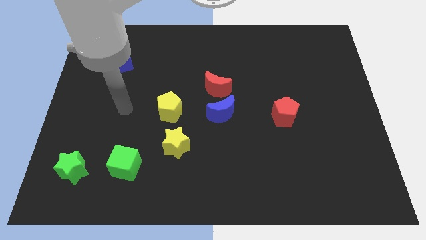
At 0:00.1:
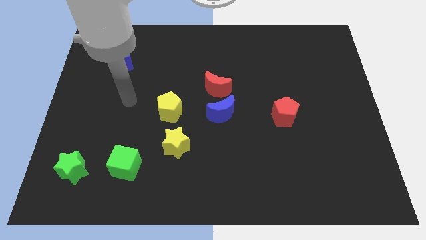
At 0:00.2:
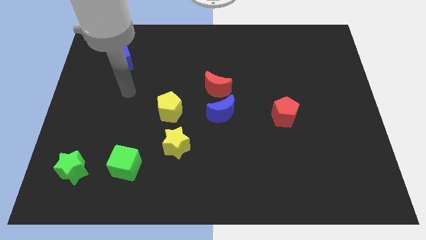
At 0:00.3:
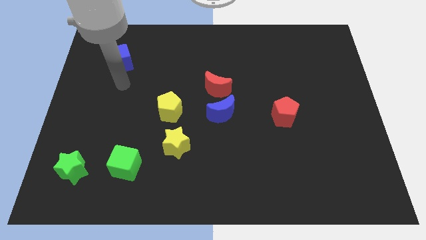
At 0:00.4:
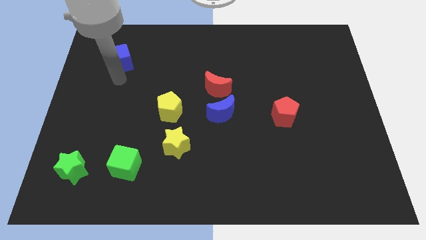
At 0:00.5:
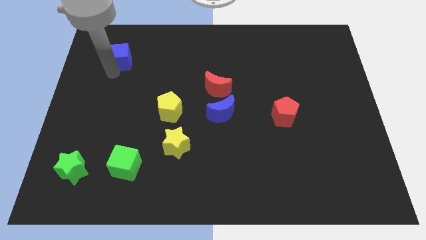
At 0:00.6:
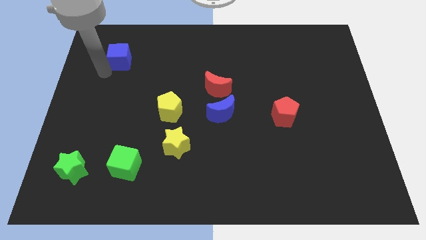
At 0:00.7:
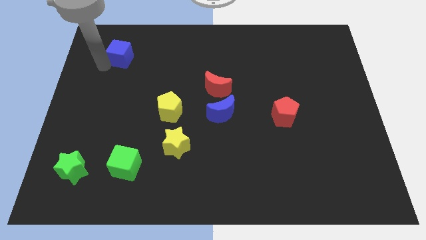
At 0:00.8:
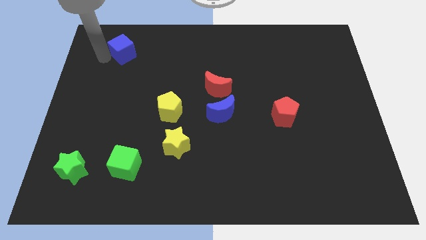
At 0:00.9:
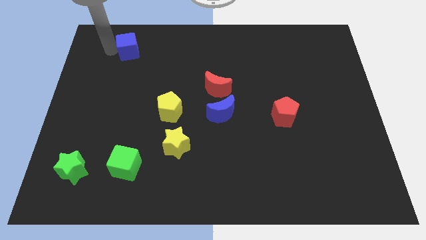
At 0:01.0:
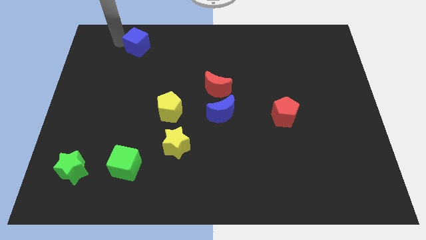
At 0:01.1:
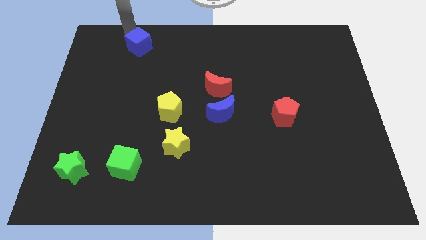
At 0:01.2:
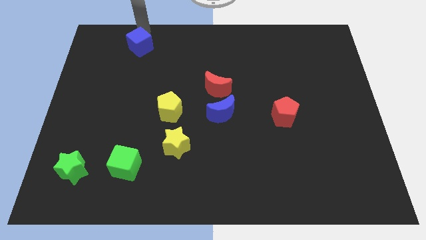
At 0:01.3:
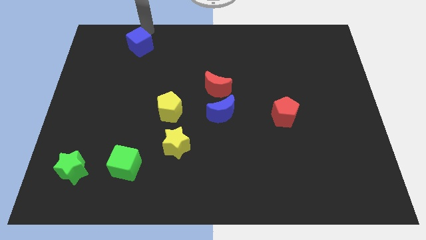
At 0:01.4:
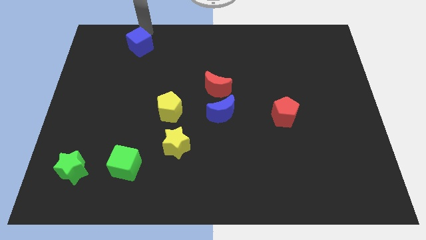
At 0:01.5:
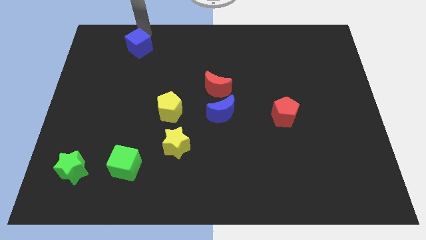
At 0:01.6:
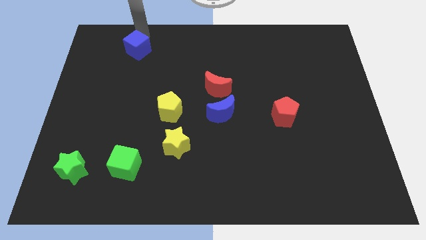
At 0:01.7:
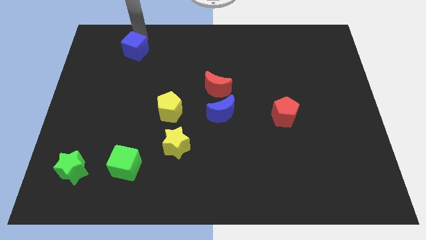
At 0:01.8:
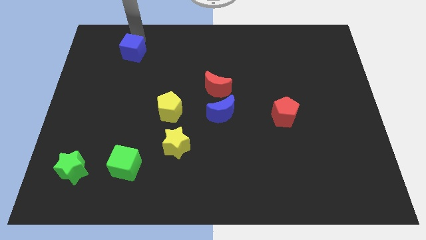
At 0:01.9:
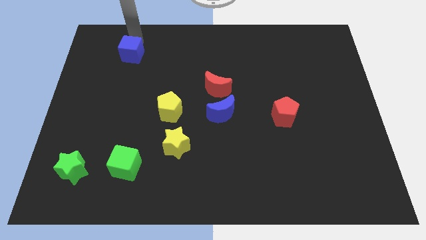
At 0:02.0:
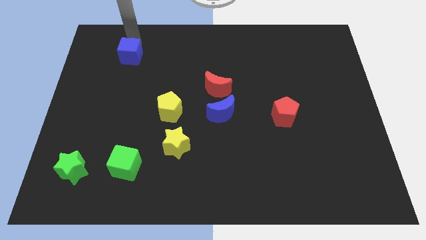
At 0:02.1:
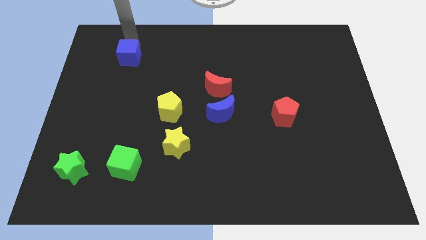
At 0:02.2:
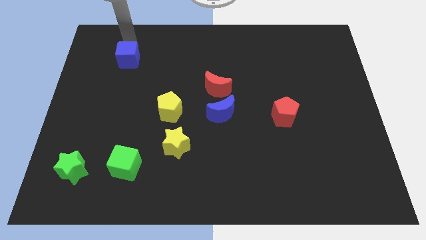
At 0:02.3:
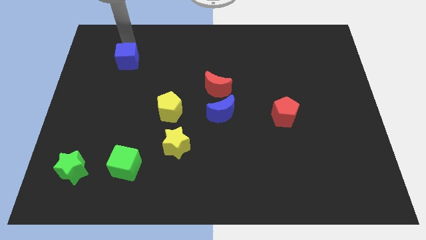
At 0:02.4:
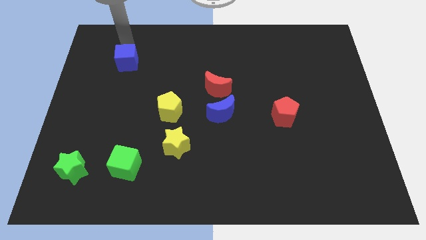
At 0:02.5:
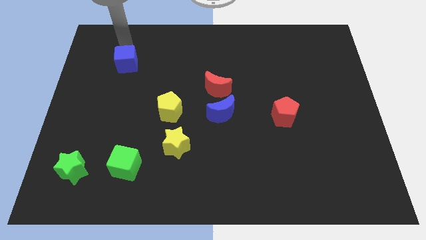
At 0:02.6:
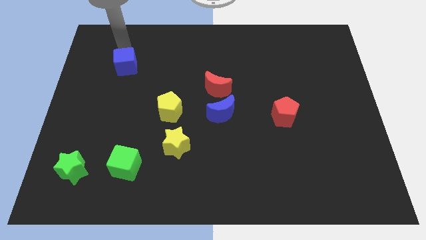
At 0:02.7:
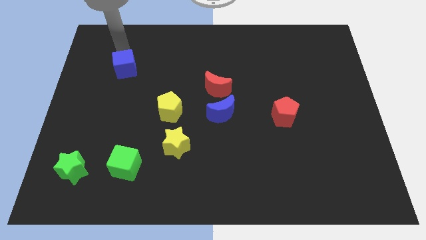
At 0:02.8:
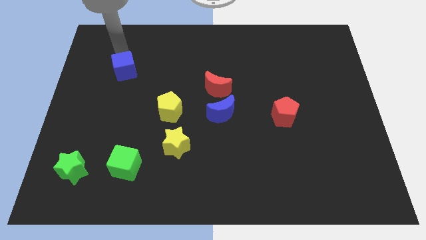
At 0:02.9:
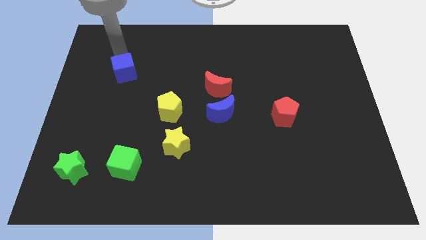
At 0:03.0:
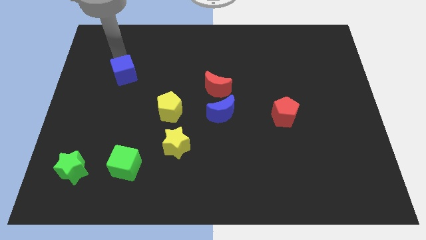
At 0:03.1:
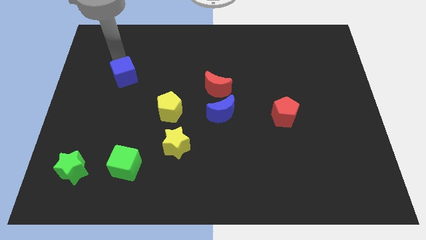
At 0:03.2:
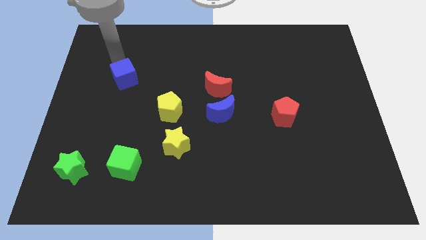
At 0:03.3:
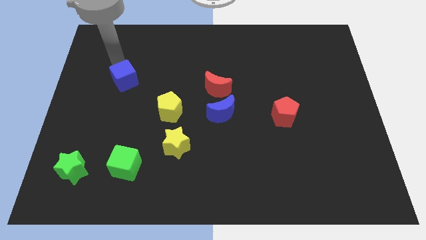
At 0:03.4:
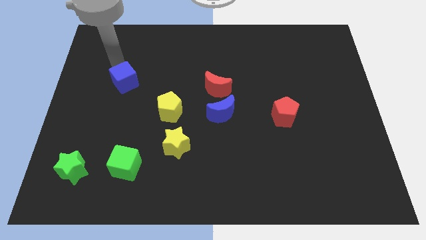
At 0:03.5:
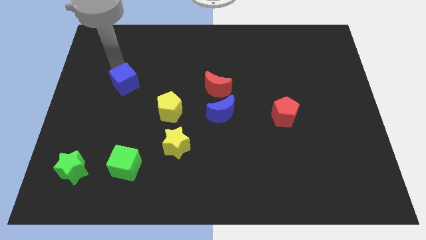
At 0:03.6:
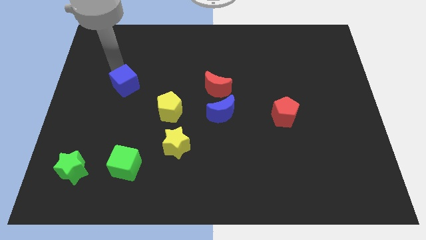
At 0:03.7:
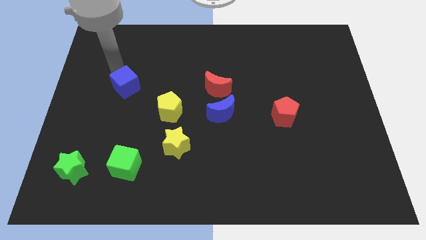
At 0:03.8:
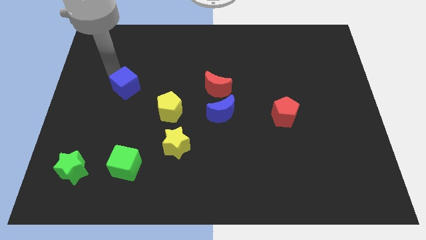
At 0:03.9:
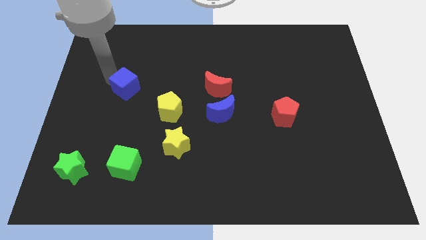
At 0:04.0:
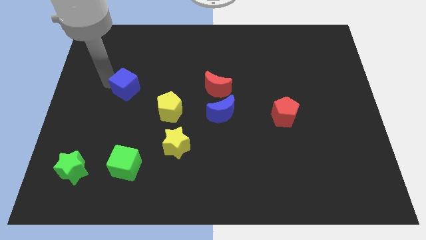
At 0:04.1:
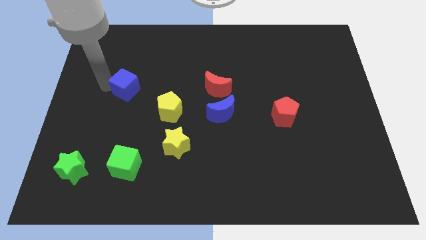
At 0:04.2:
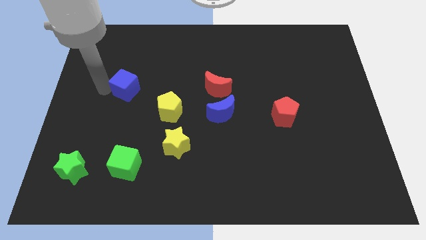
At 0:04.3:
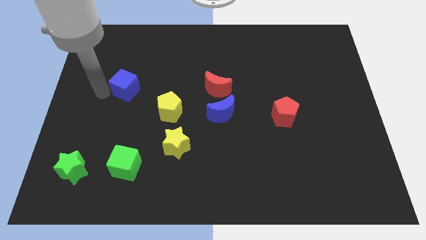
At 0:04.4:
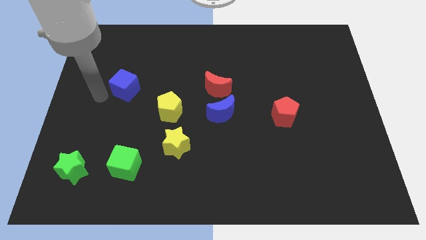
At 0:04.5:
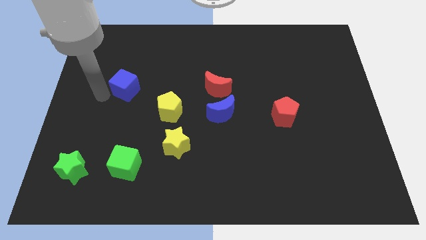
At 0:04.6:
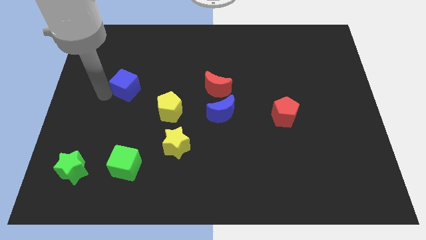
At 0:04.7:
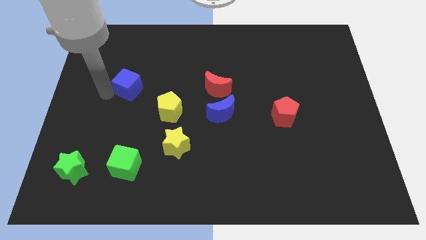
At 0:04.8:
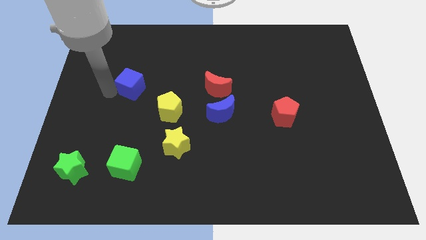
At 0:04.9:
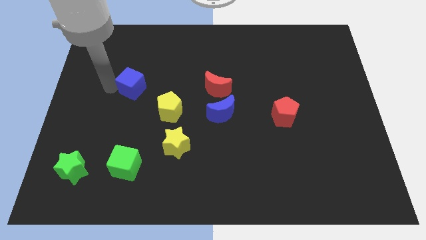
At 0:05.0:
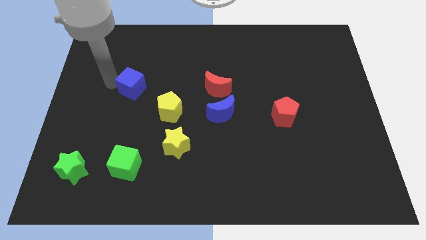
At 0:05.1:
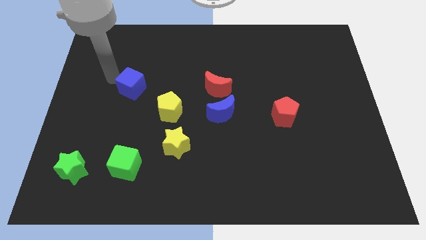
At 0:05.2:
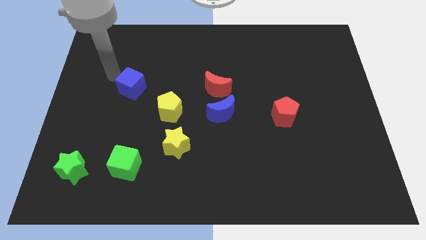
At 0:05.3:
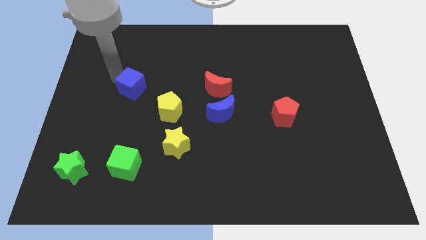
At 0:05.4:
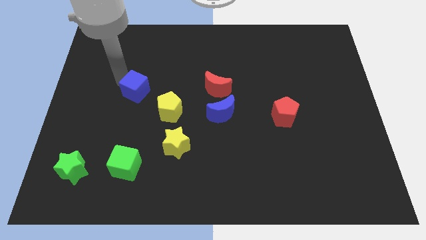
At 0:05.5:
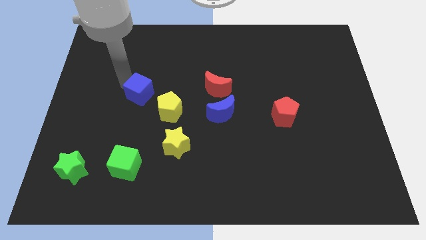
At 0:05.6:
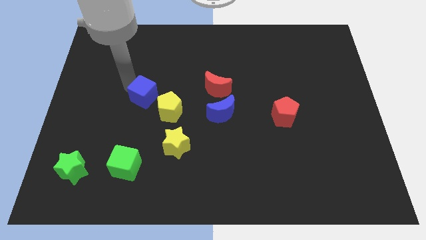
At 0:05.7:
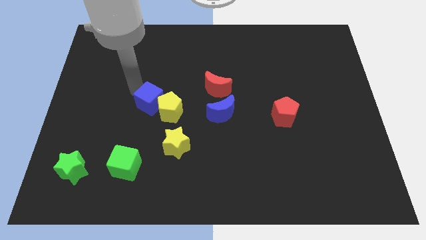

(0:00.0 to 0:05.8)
push the blue cube next to the yellow pentagon

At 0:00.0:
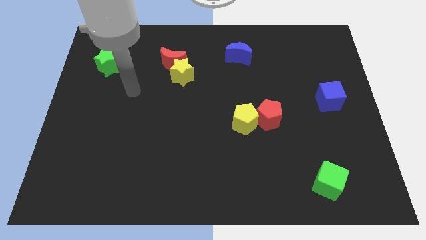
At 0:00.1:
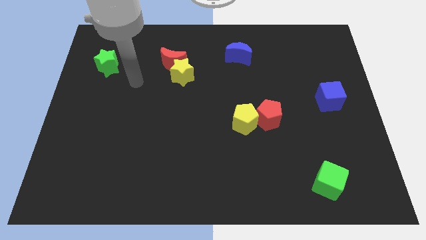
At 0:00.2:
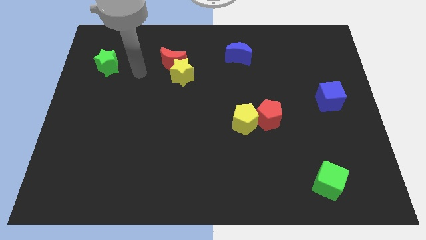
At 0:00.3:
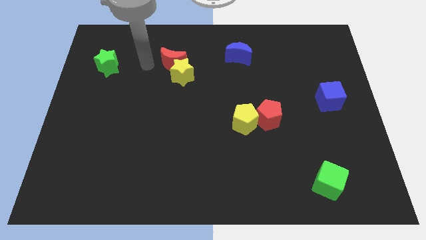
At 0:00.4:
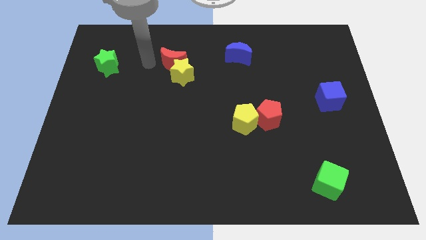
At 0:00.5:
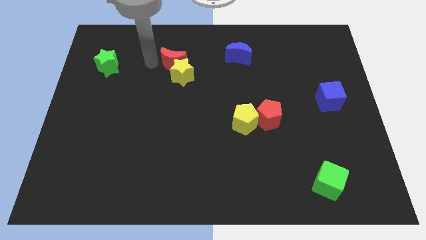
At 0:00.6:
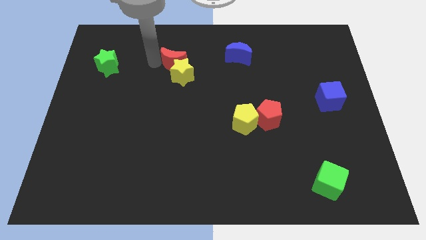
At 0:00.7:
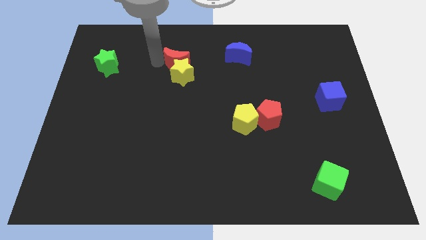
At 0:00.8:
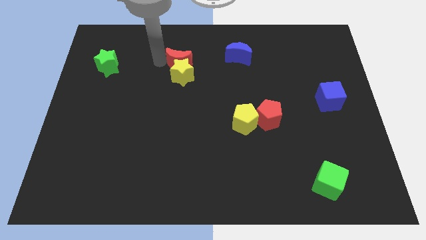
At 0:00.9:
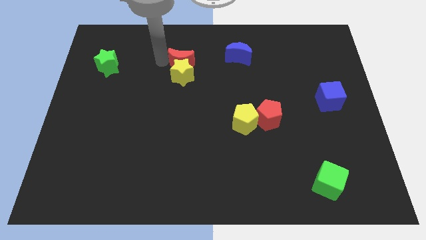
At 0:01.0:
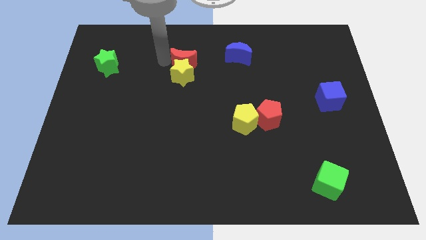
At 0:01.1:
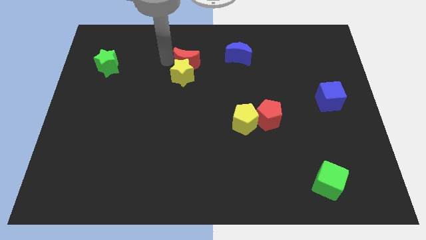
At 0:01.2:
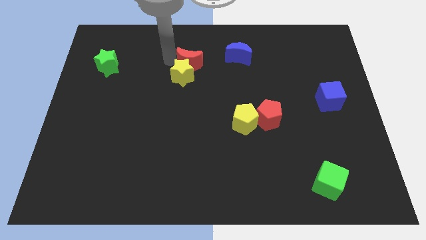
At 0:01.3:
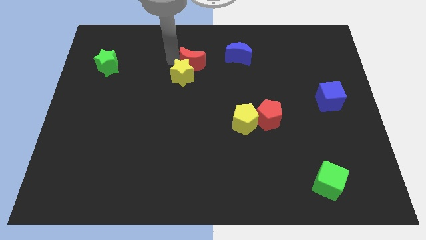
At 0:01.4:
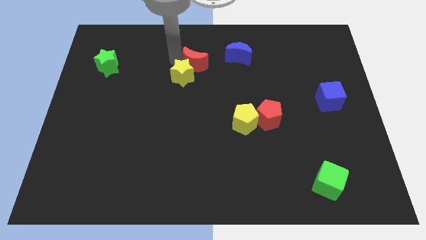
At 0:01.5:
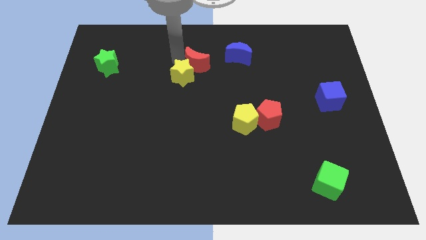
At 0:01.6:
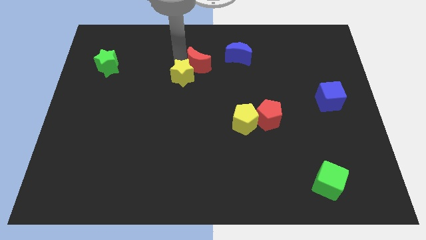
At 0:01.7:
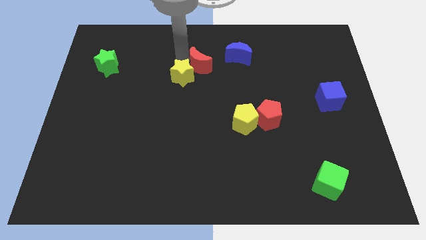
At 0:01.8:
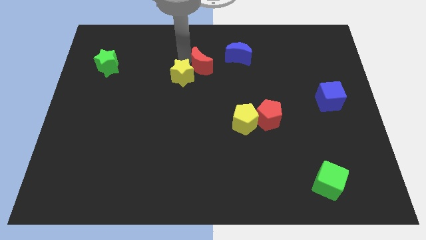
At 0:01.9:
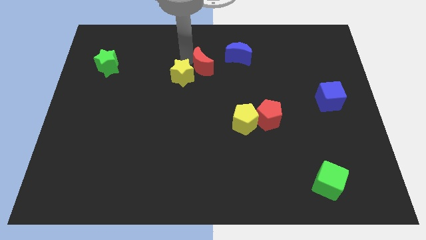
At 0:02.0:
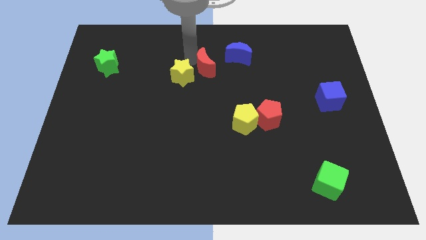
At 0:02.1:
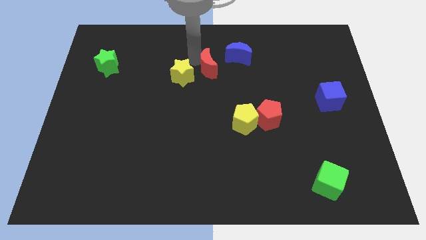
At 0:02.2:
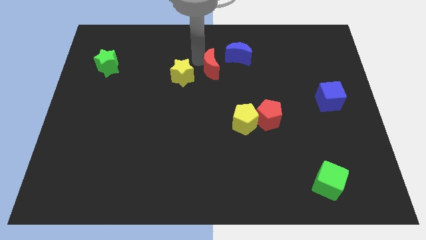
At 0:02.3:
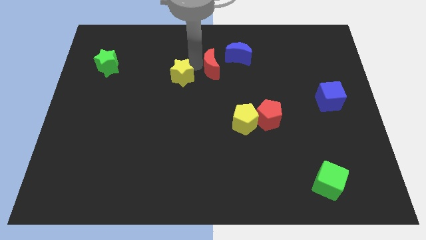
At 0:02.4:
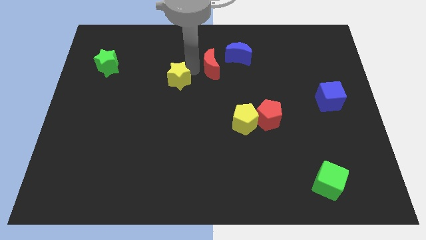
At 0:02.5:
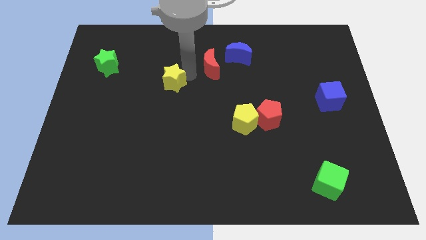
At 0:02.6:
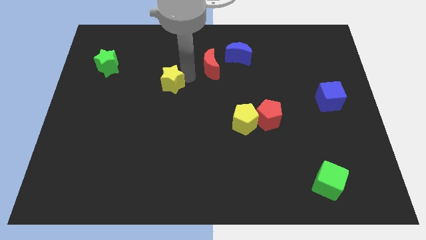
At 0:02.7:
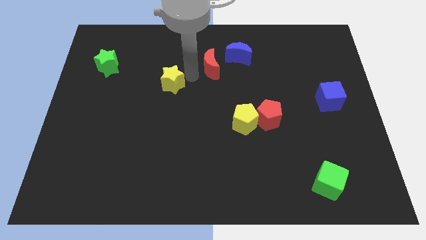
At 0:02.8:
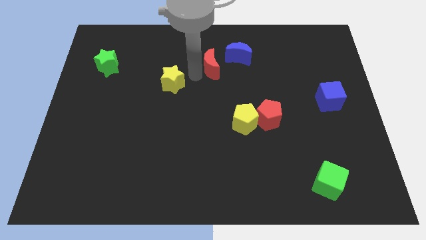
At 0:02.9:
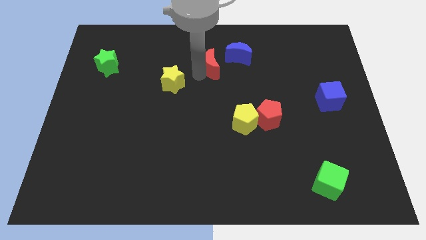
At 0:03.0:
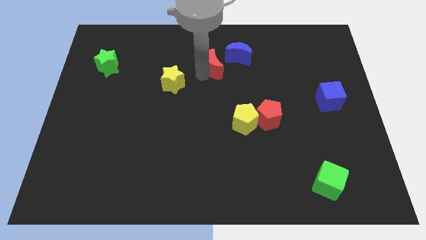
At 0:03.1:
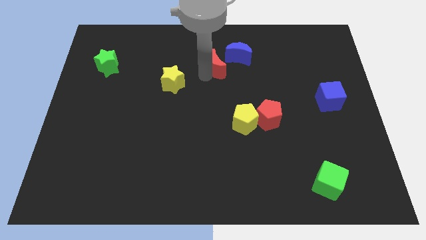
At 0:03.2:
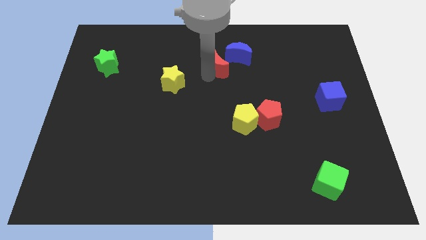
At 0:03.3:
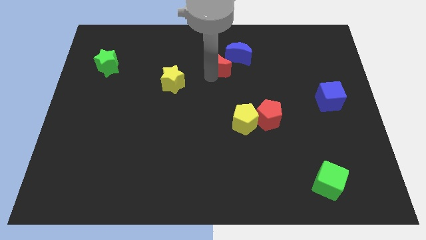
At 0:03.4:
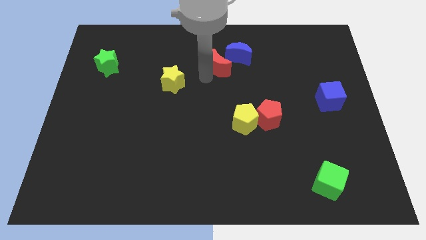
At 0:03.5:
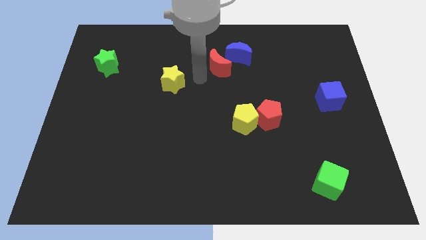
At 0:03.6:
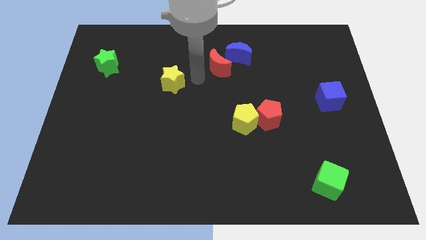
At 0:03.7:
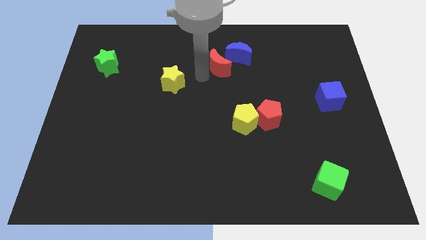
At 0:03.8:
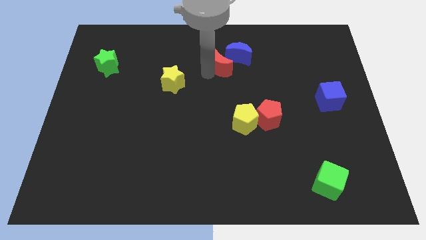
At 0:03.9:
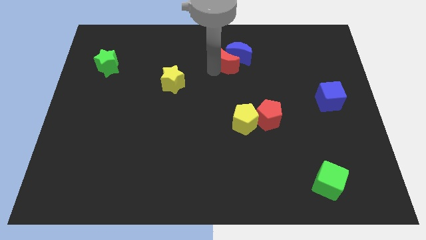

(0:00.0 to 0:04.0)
slide the red moon close to the blue moon
